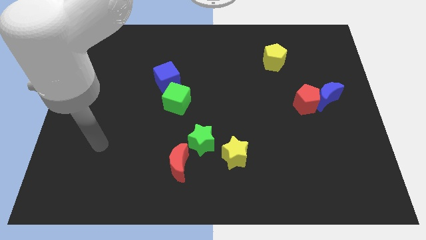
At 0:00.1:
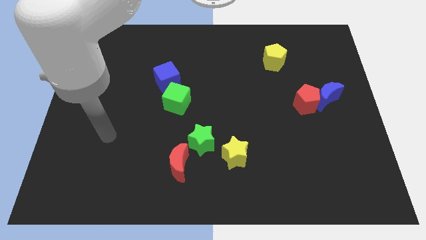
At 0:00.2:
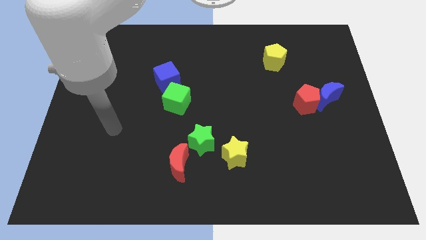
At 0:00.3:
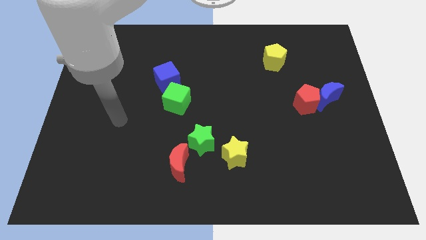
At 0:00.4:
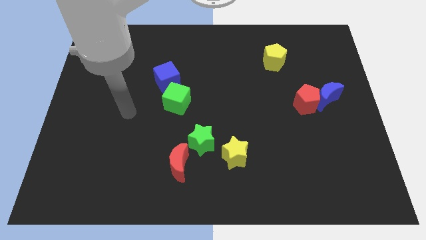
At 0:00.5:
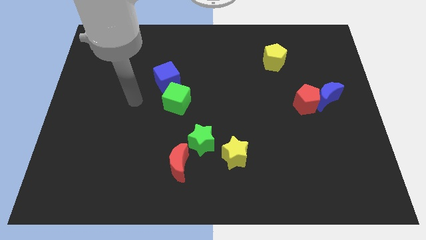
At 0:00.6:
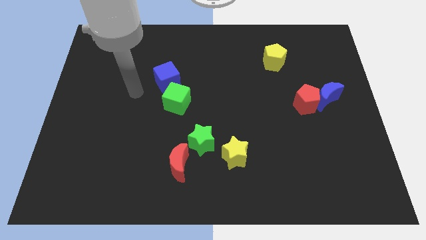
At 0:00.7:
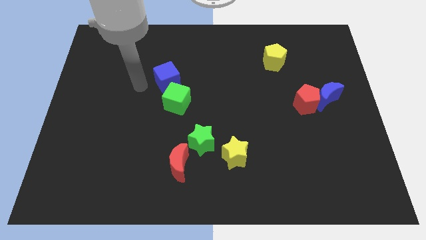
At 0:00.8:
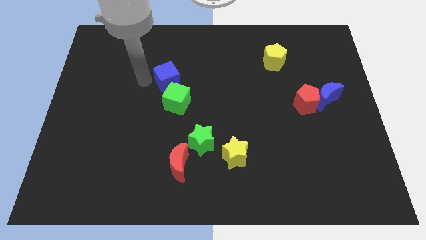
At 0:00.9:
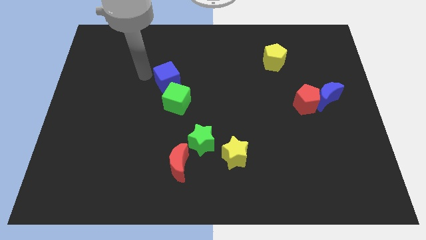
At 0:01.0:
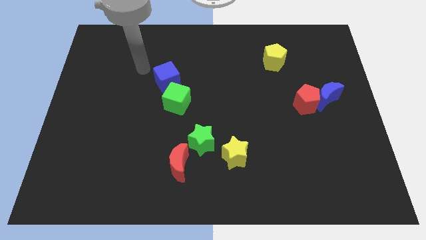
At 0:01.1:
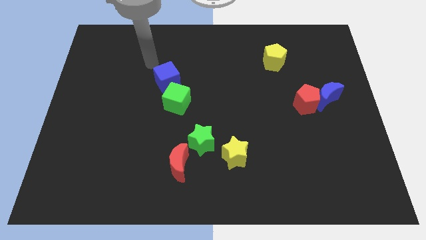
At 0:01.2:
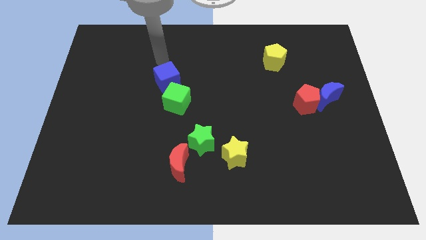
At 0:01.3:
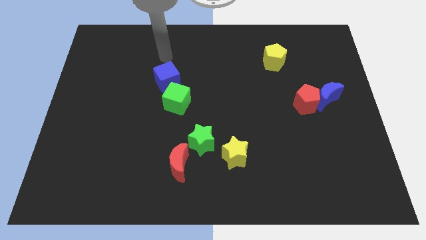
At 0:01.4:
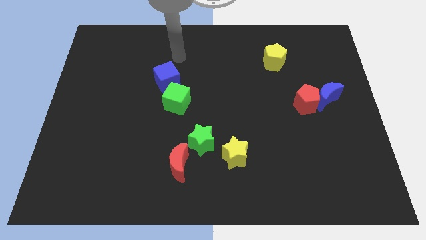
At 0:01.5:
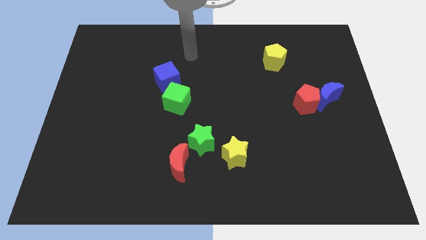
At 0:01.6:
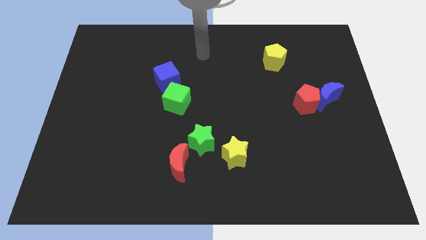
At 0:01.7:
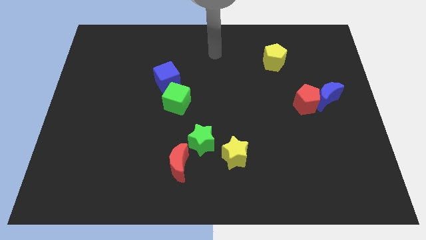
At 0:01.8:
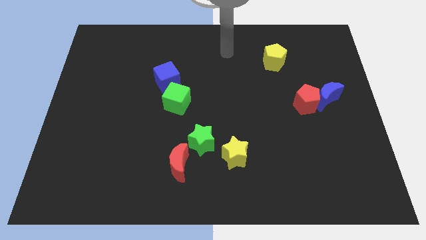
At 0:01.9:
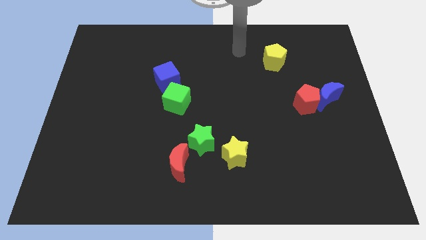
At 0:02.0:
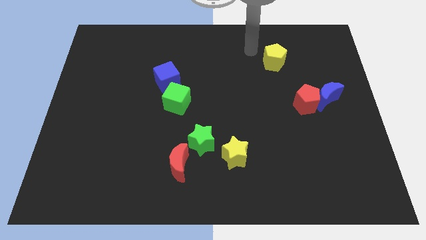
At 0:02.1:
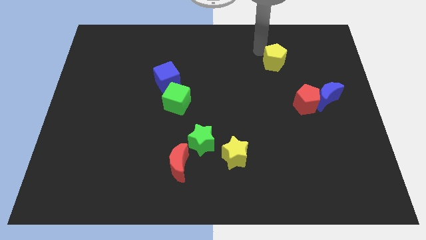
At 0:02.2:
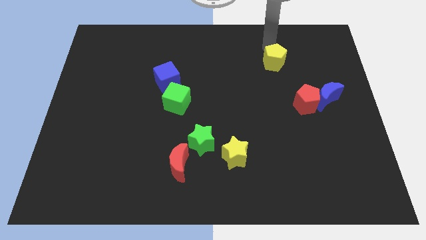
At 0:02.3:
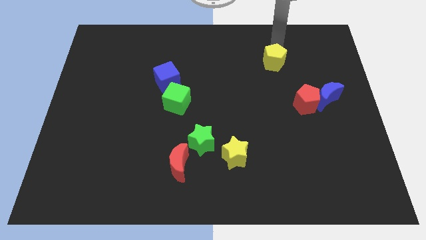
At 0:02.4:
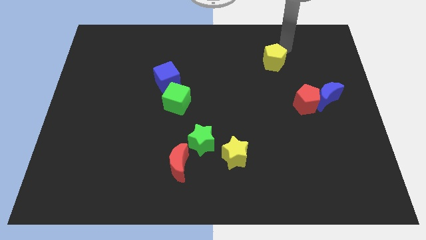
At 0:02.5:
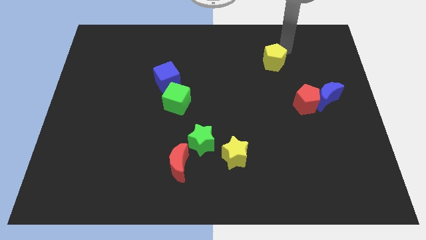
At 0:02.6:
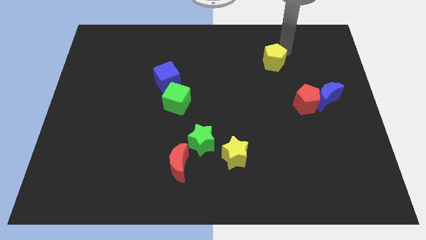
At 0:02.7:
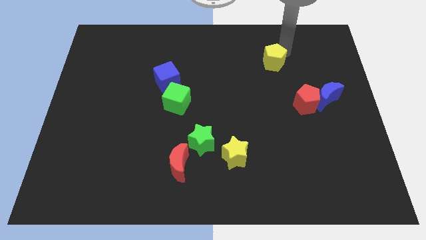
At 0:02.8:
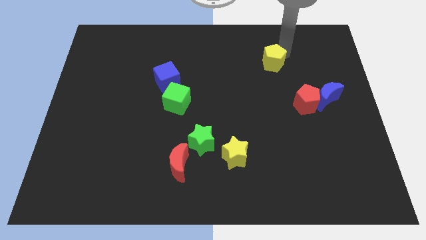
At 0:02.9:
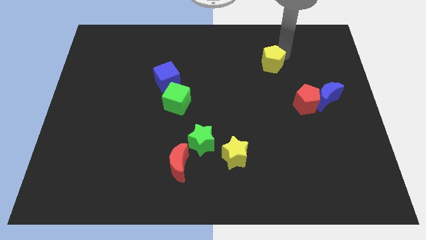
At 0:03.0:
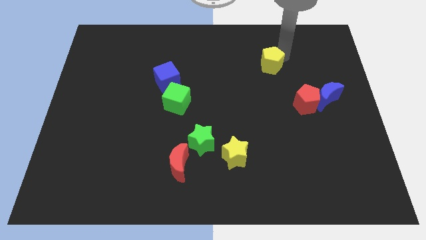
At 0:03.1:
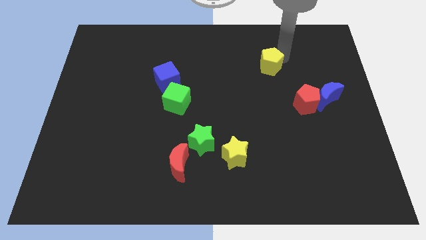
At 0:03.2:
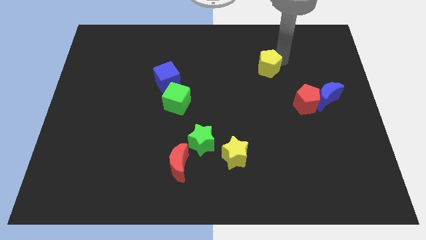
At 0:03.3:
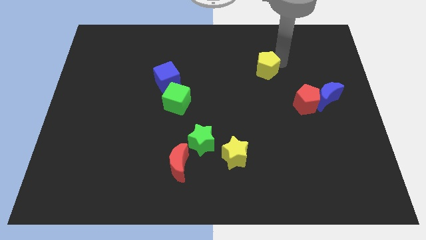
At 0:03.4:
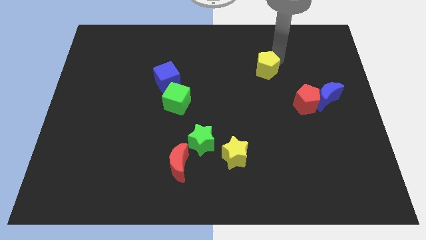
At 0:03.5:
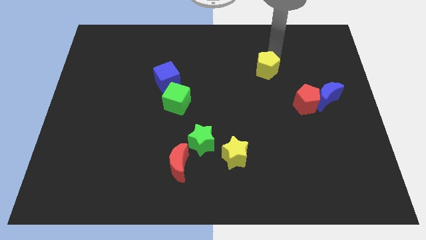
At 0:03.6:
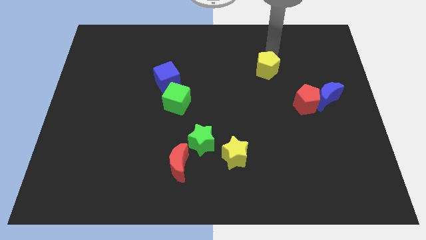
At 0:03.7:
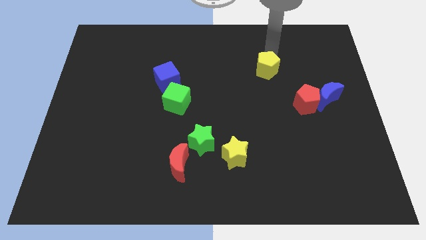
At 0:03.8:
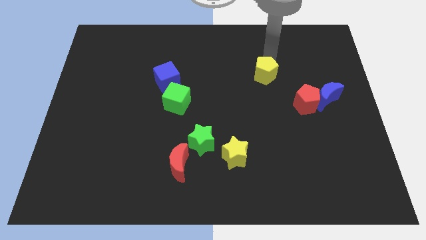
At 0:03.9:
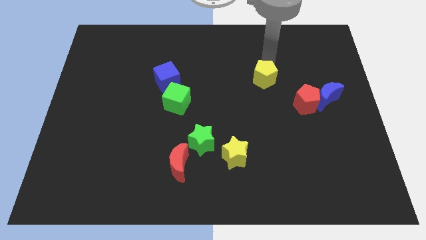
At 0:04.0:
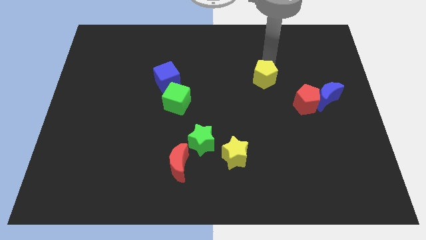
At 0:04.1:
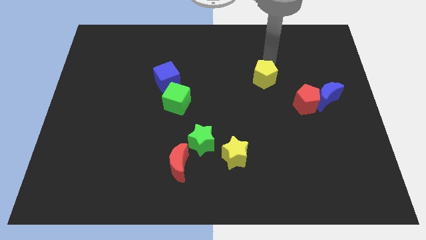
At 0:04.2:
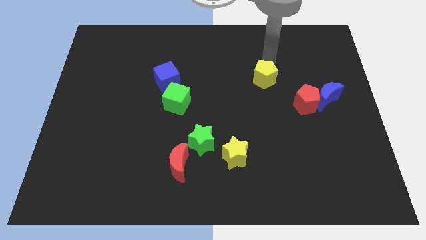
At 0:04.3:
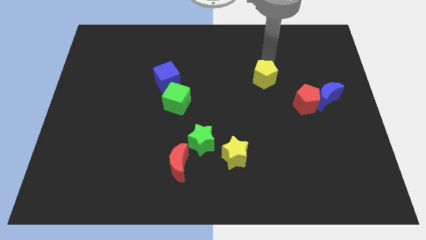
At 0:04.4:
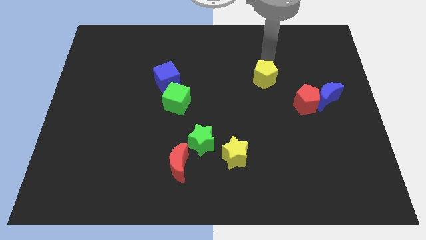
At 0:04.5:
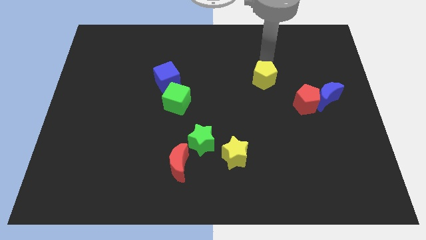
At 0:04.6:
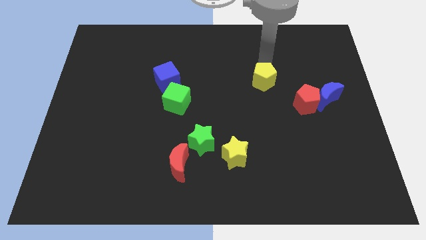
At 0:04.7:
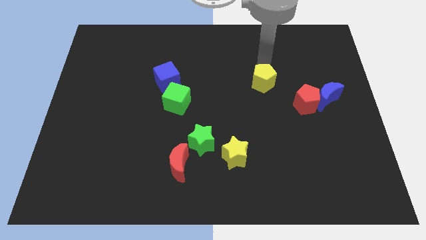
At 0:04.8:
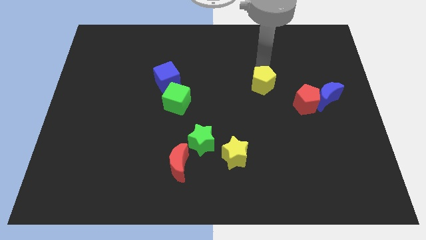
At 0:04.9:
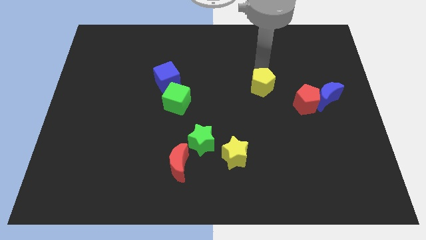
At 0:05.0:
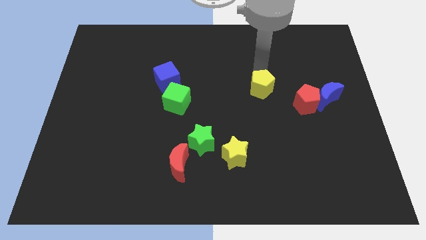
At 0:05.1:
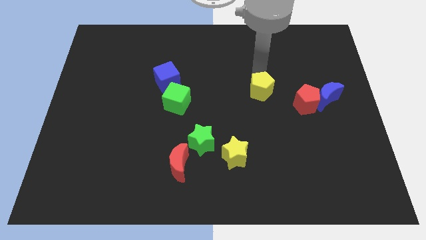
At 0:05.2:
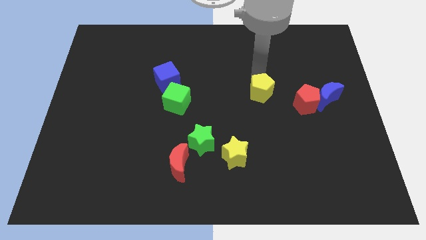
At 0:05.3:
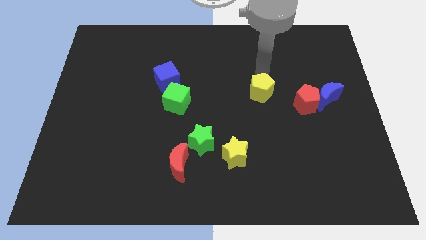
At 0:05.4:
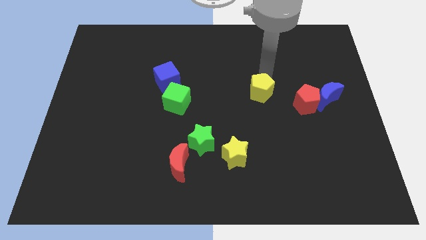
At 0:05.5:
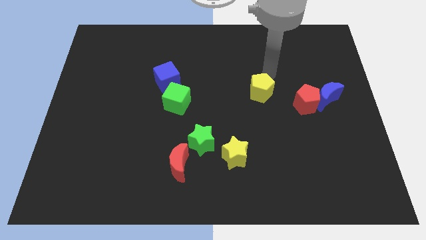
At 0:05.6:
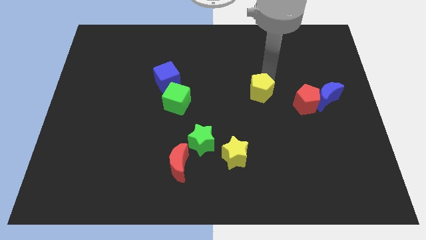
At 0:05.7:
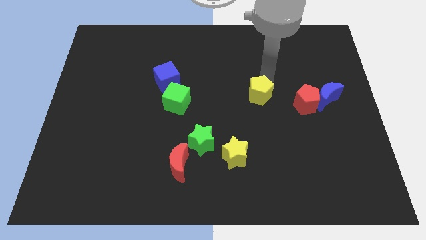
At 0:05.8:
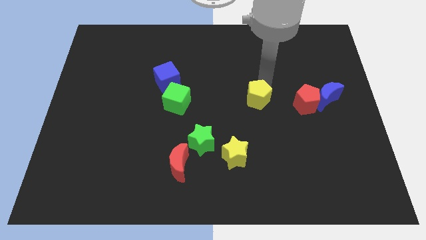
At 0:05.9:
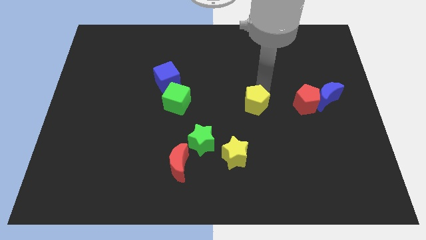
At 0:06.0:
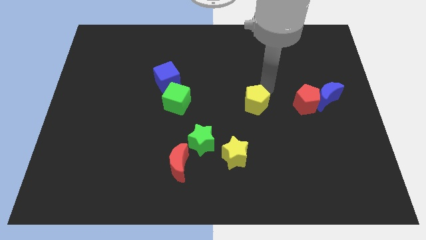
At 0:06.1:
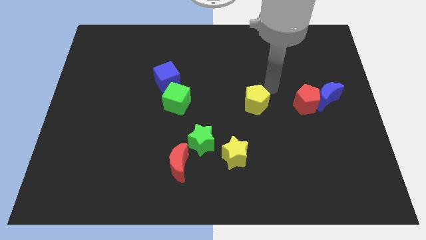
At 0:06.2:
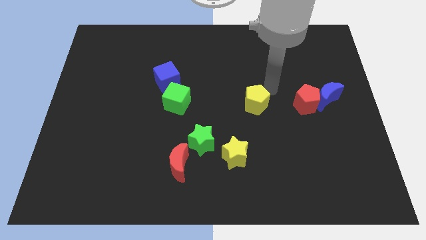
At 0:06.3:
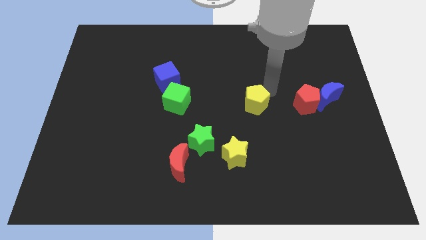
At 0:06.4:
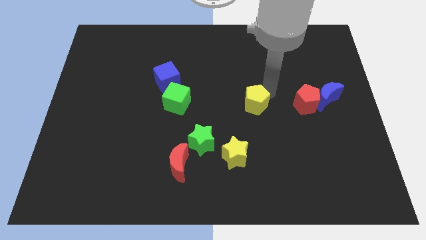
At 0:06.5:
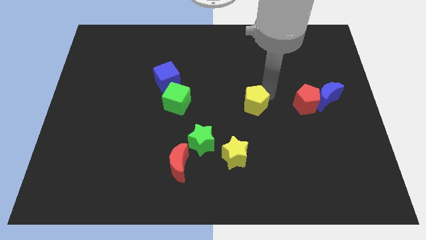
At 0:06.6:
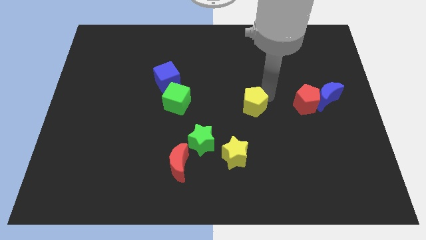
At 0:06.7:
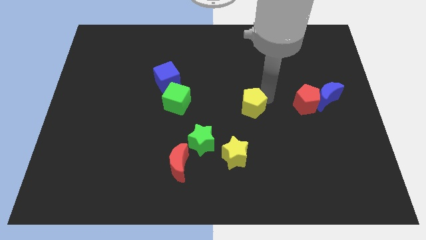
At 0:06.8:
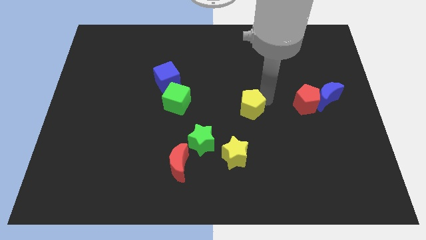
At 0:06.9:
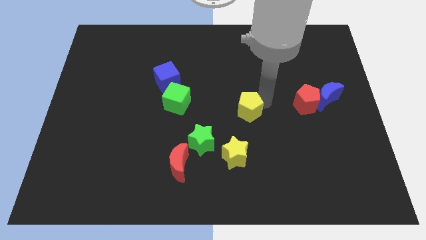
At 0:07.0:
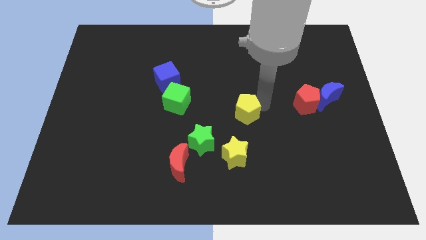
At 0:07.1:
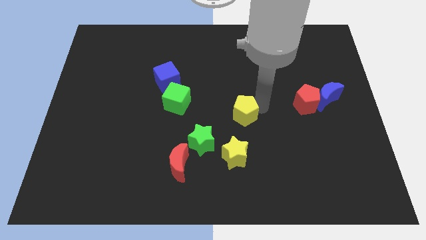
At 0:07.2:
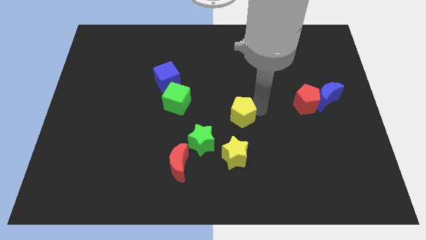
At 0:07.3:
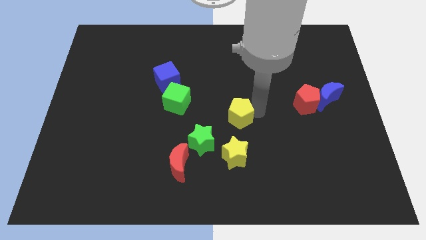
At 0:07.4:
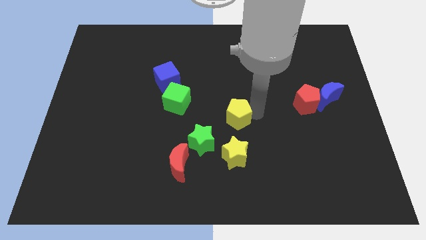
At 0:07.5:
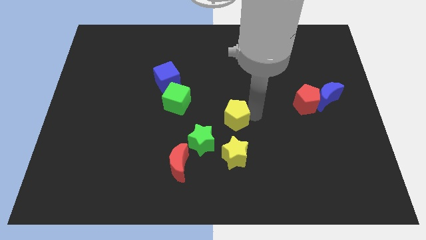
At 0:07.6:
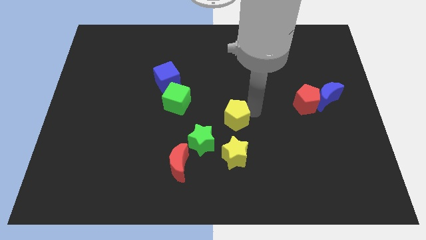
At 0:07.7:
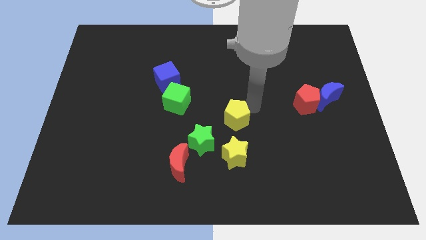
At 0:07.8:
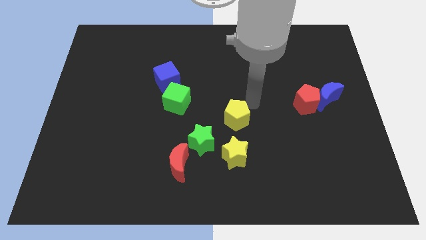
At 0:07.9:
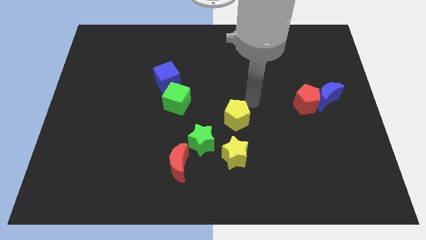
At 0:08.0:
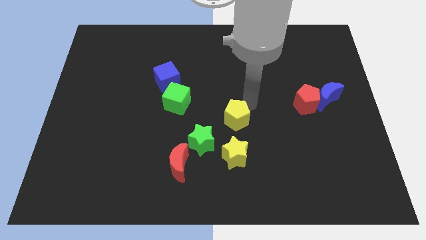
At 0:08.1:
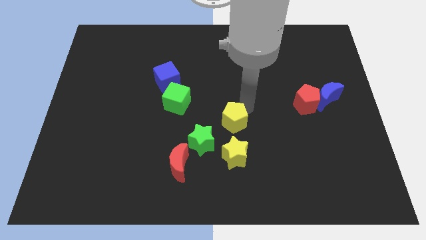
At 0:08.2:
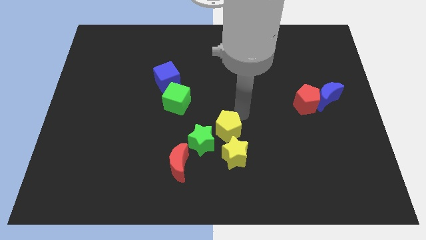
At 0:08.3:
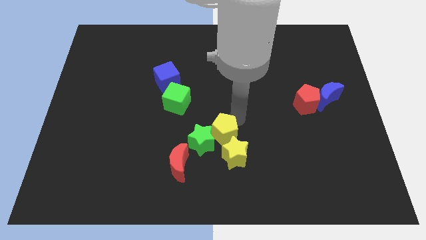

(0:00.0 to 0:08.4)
slide the yellow pentagon close to the green star
